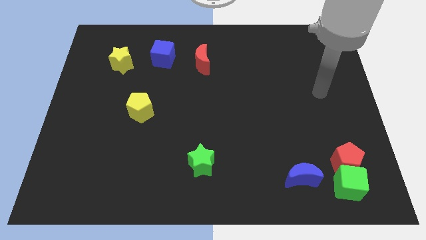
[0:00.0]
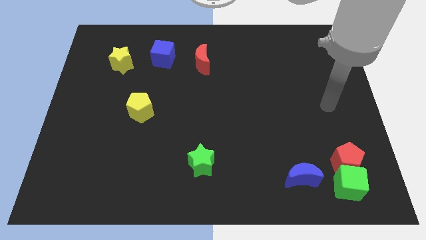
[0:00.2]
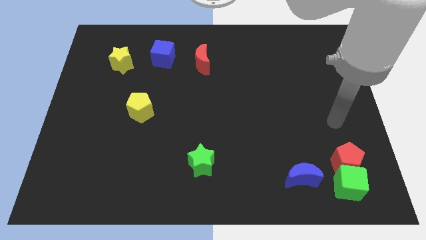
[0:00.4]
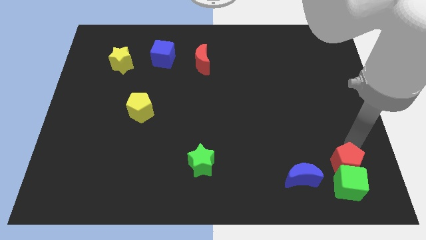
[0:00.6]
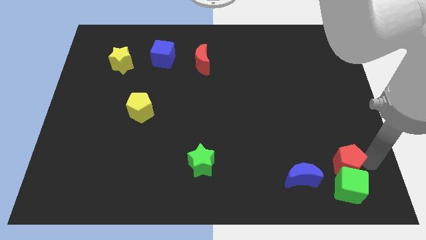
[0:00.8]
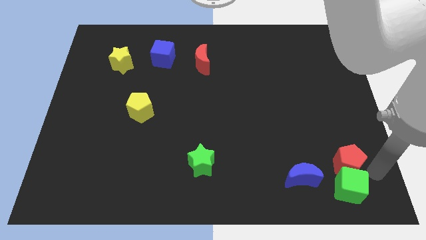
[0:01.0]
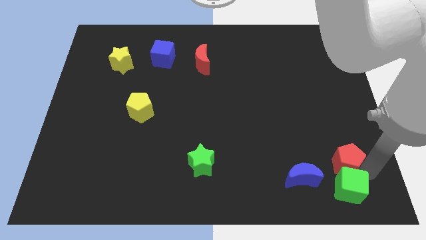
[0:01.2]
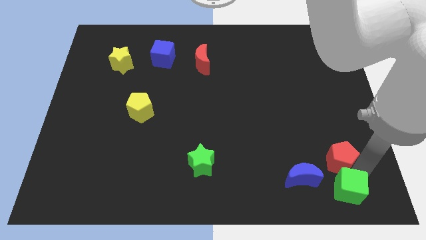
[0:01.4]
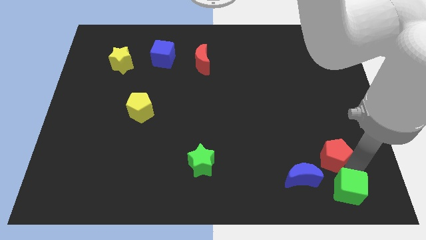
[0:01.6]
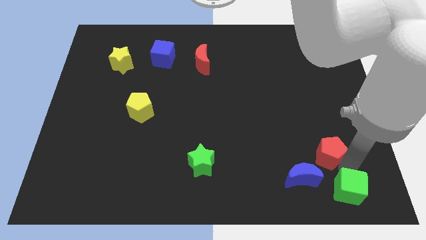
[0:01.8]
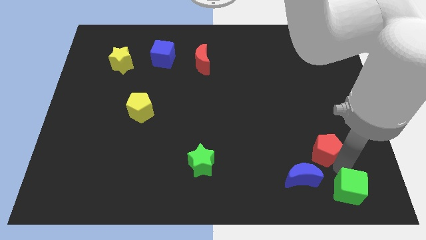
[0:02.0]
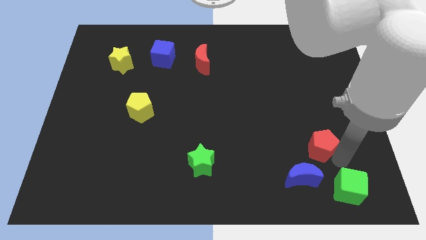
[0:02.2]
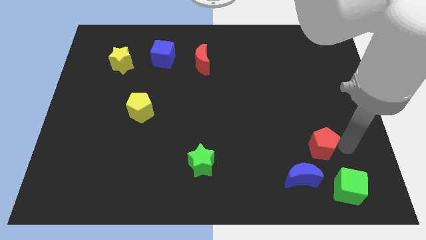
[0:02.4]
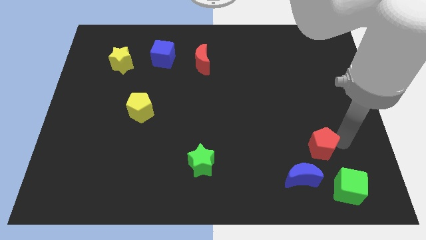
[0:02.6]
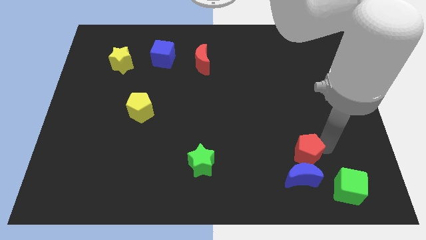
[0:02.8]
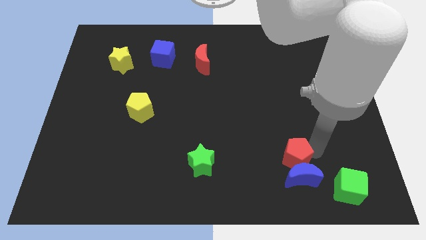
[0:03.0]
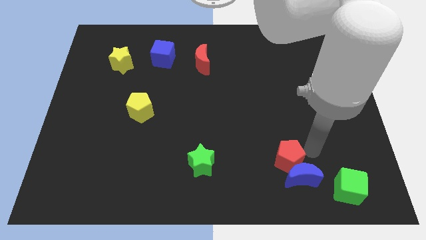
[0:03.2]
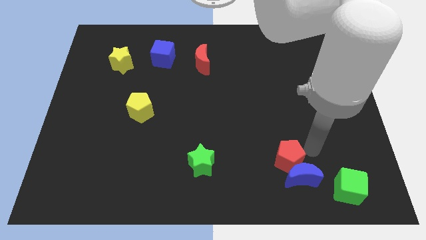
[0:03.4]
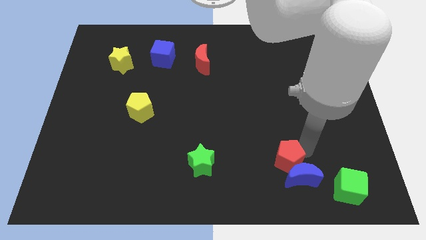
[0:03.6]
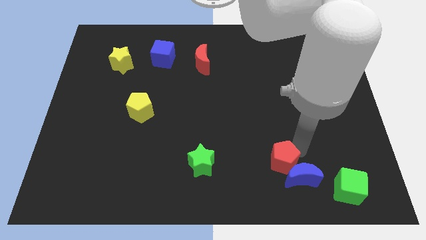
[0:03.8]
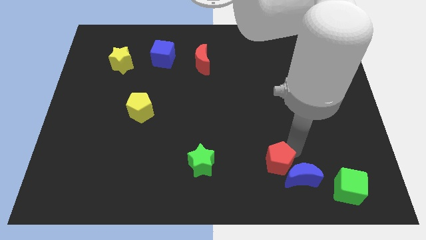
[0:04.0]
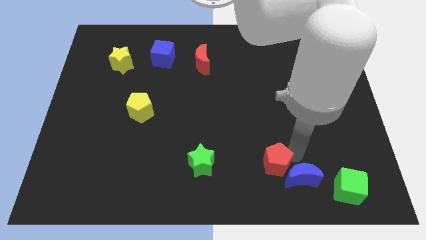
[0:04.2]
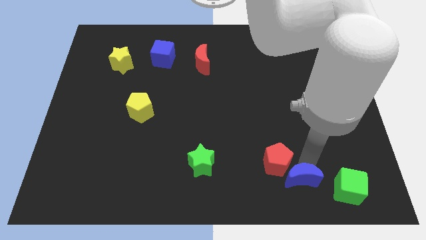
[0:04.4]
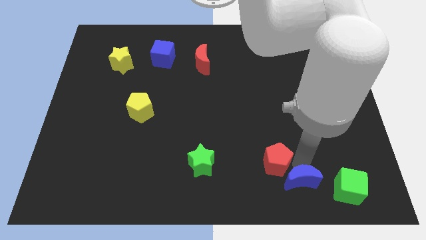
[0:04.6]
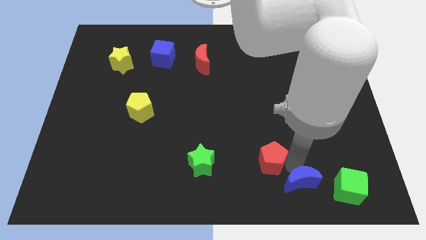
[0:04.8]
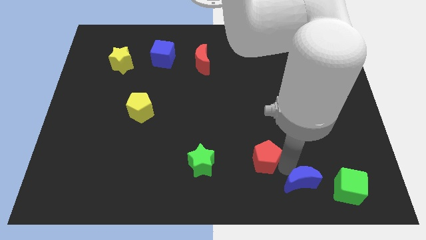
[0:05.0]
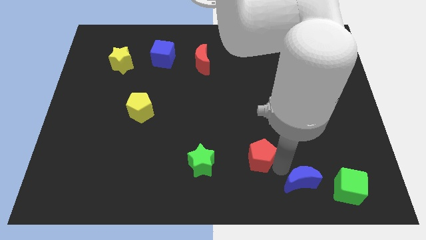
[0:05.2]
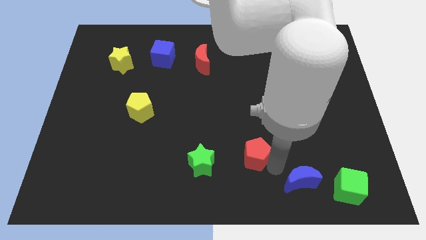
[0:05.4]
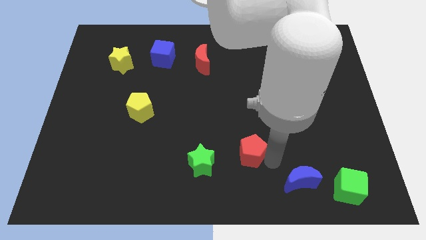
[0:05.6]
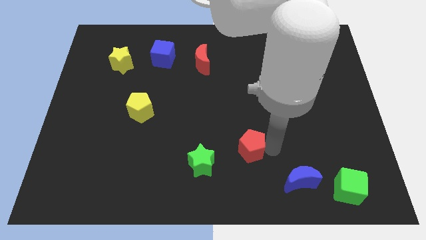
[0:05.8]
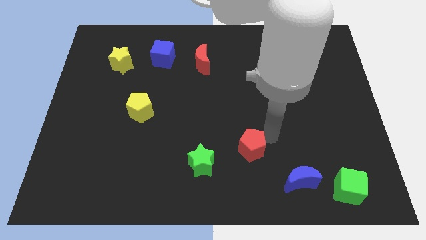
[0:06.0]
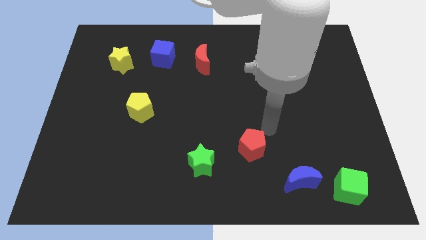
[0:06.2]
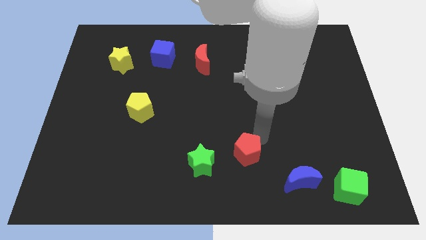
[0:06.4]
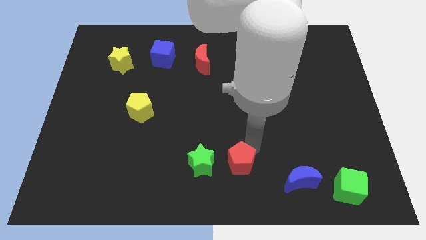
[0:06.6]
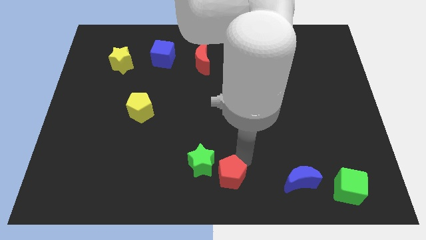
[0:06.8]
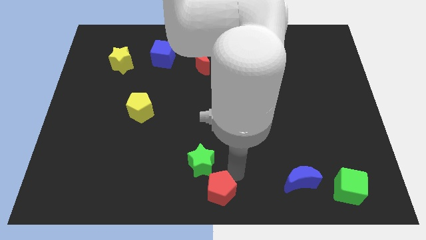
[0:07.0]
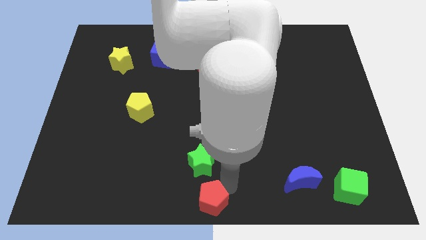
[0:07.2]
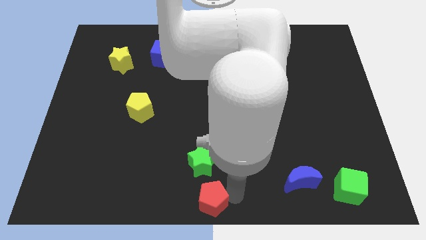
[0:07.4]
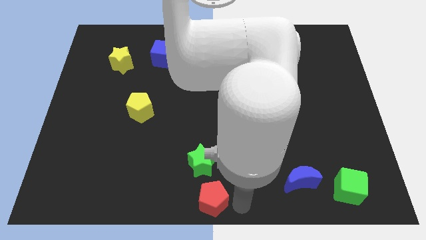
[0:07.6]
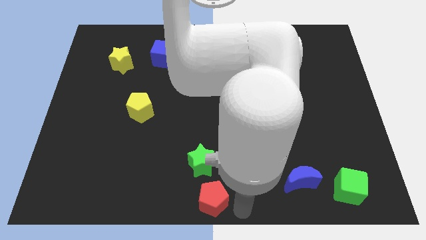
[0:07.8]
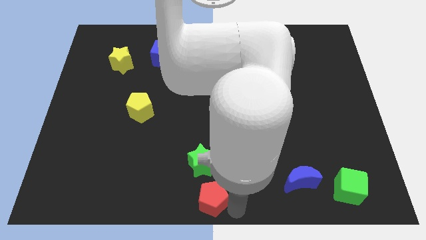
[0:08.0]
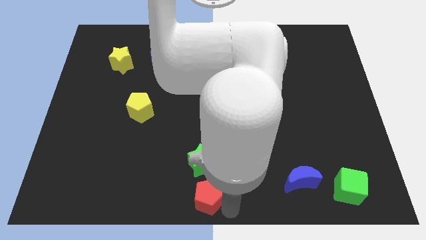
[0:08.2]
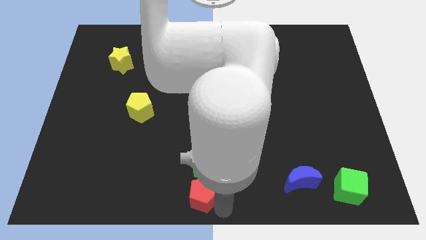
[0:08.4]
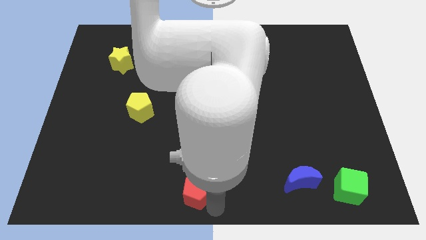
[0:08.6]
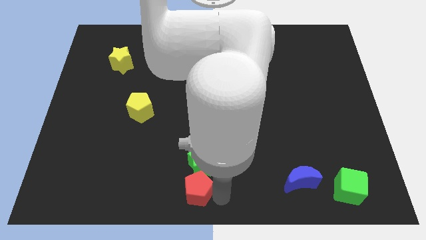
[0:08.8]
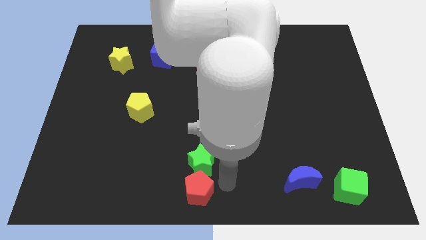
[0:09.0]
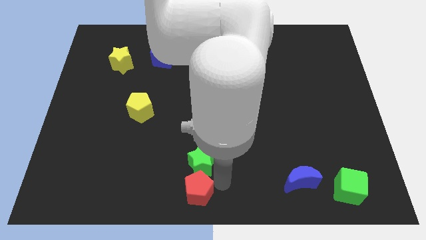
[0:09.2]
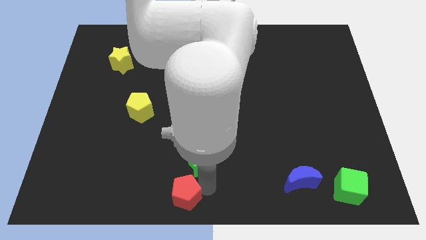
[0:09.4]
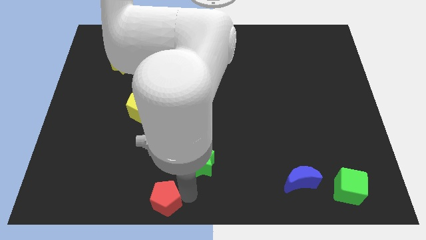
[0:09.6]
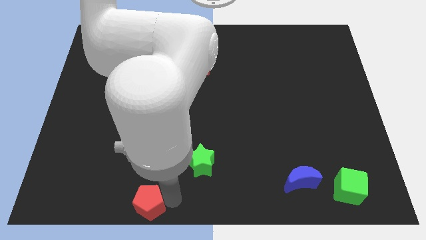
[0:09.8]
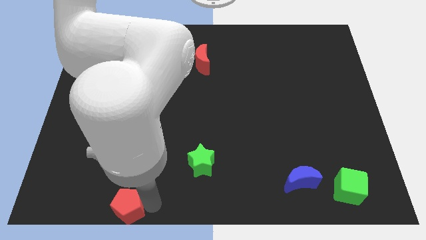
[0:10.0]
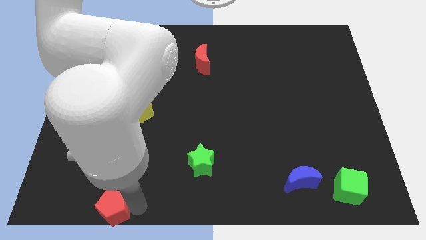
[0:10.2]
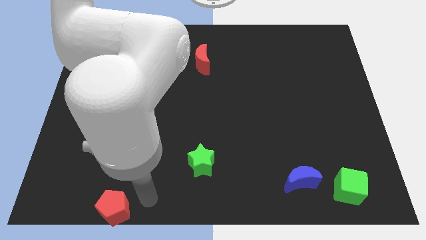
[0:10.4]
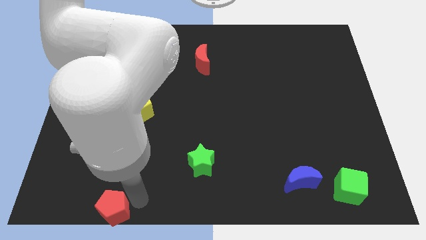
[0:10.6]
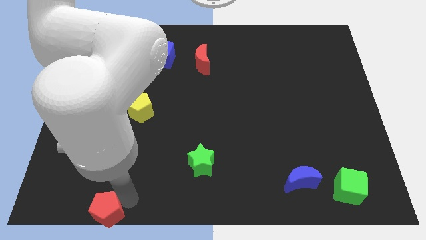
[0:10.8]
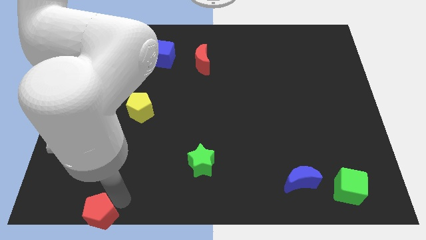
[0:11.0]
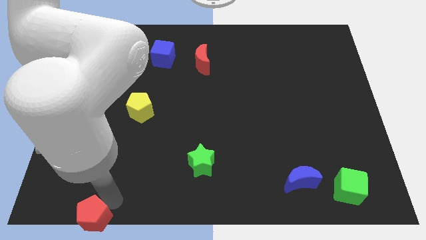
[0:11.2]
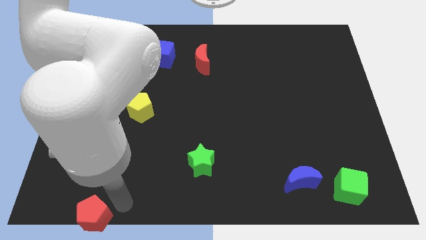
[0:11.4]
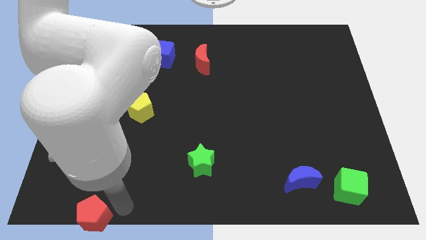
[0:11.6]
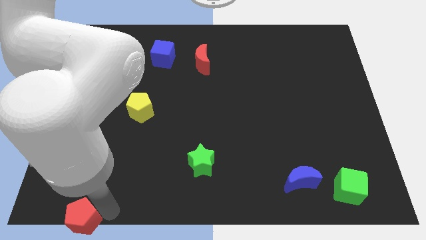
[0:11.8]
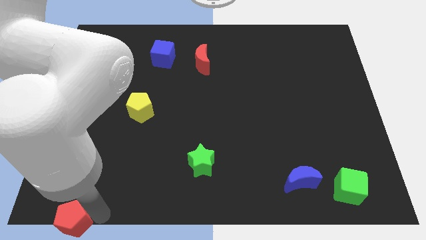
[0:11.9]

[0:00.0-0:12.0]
push the red pentagon to the bottom left

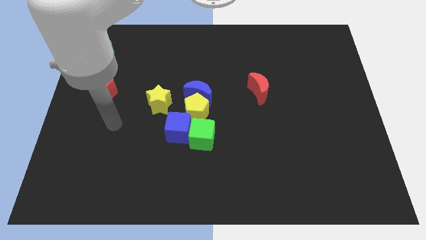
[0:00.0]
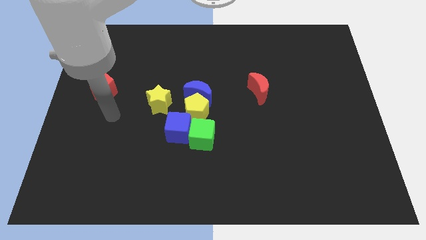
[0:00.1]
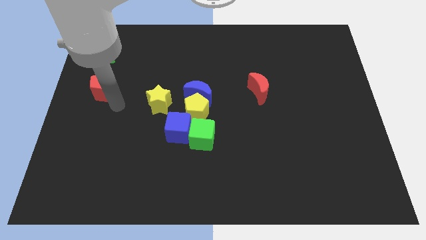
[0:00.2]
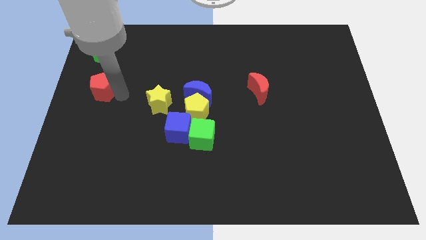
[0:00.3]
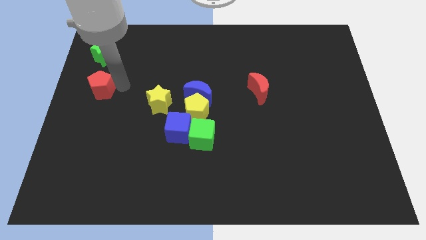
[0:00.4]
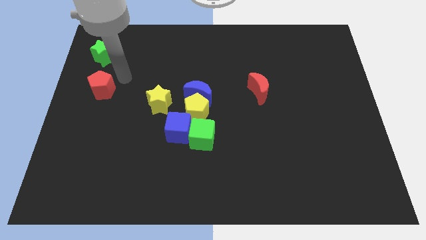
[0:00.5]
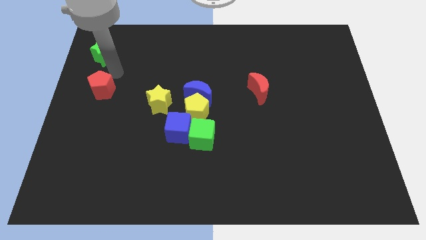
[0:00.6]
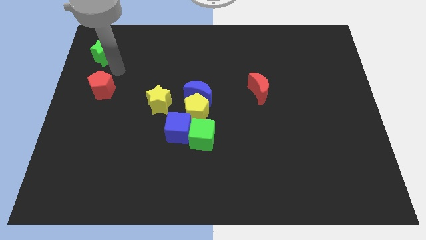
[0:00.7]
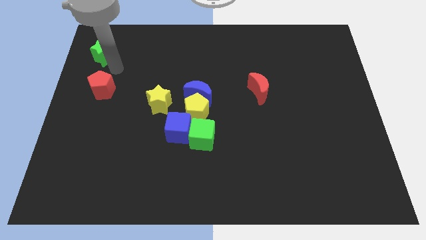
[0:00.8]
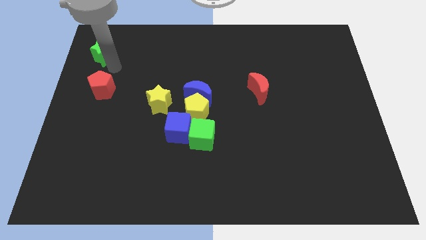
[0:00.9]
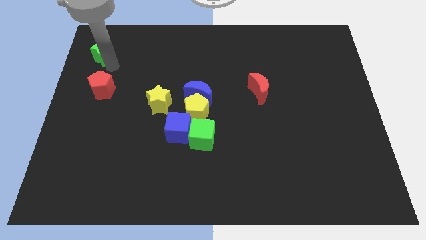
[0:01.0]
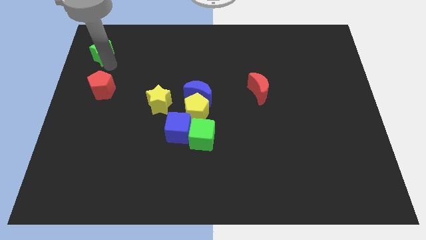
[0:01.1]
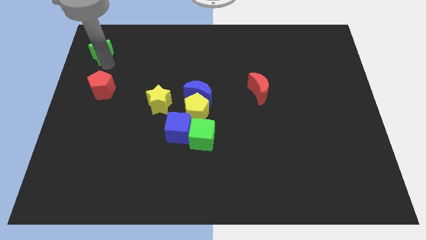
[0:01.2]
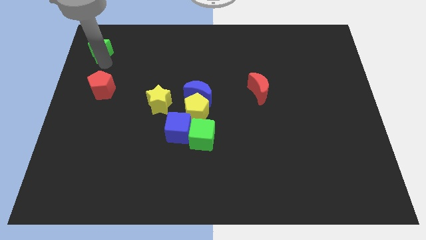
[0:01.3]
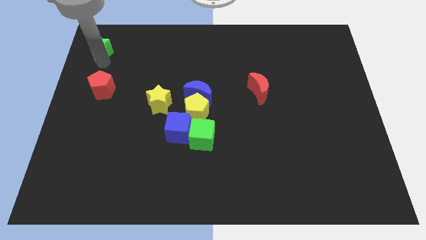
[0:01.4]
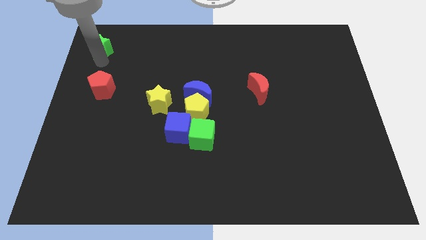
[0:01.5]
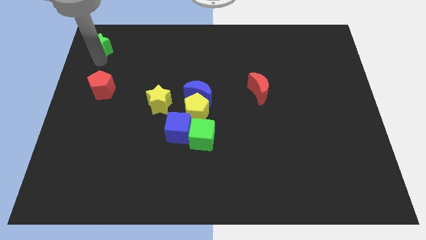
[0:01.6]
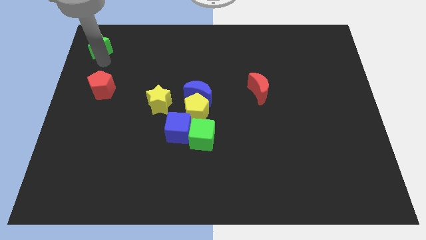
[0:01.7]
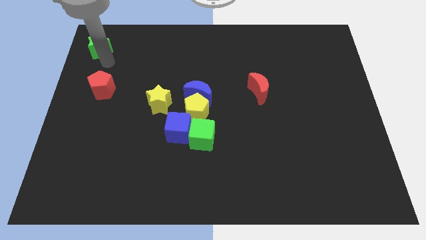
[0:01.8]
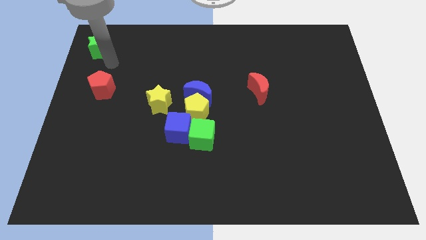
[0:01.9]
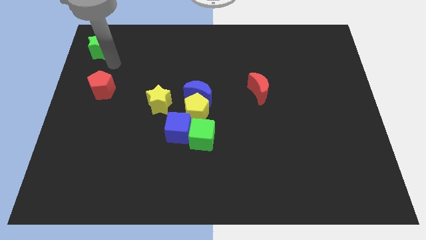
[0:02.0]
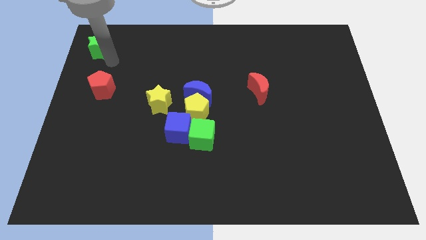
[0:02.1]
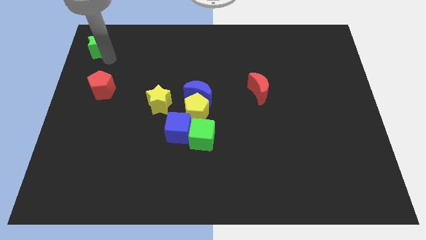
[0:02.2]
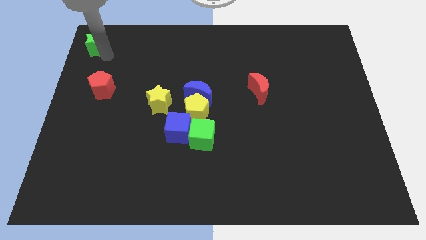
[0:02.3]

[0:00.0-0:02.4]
slide the green star to the top left corner
